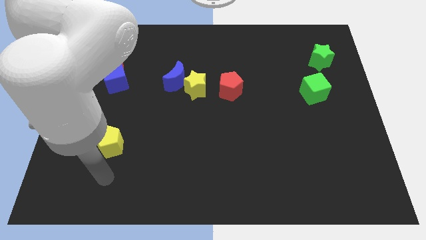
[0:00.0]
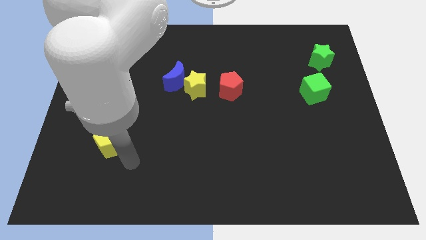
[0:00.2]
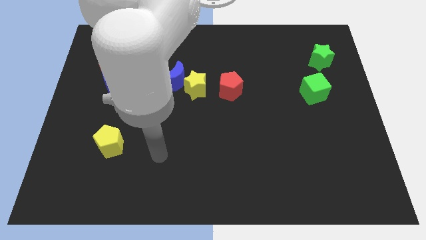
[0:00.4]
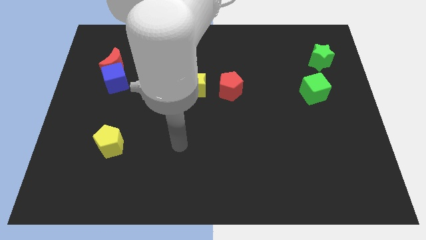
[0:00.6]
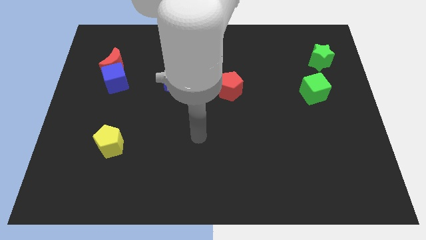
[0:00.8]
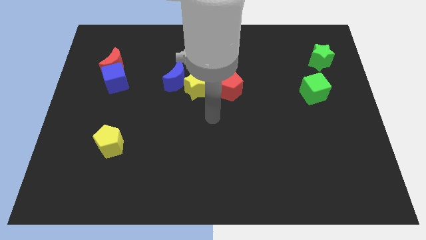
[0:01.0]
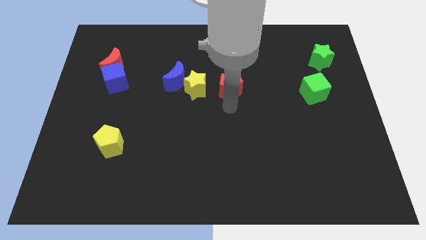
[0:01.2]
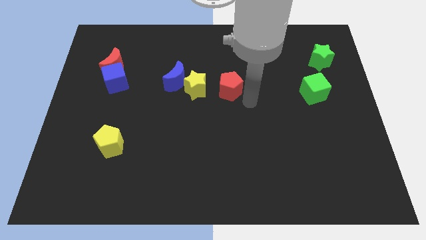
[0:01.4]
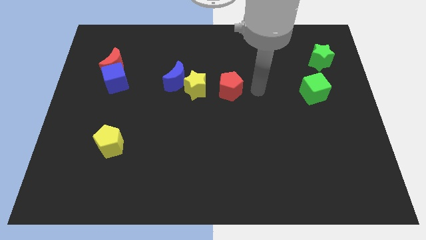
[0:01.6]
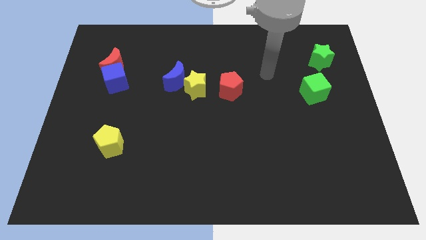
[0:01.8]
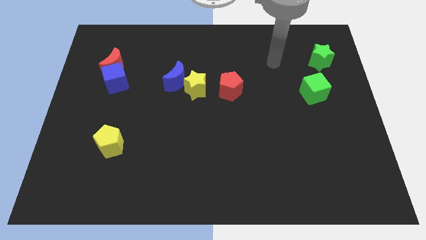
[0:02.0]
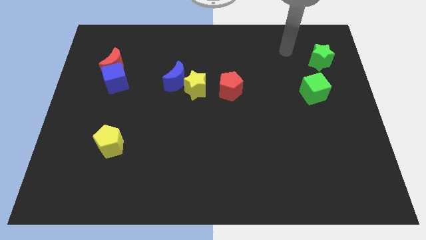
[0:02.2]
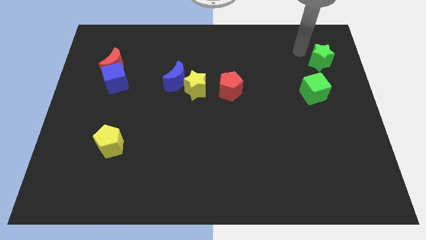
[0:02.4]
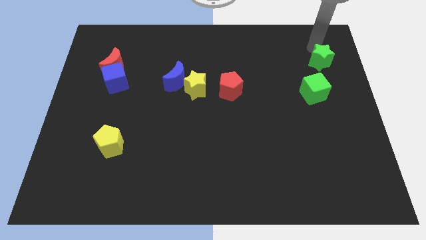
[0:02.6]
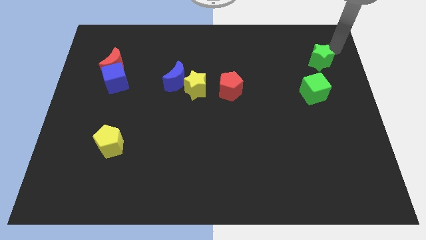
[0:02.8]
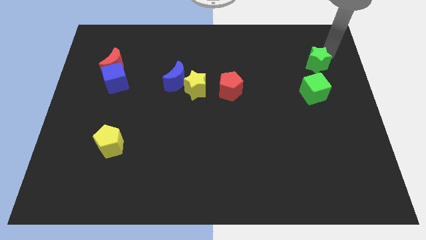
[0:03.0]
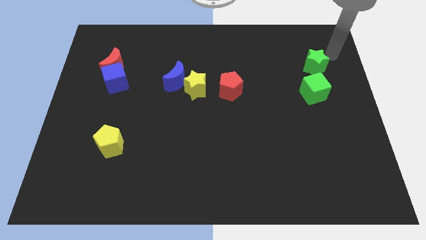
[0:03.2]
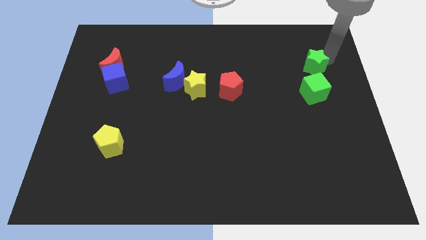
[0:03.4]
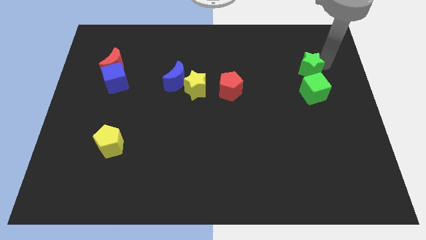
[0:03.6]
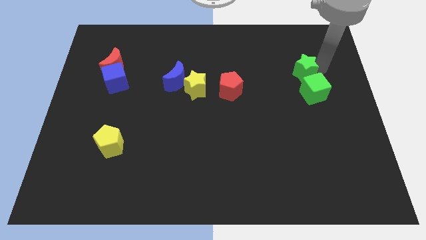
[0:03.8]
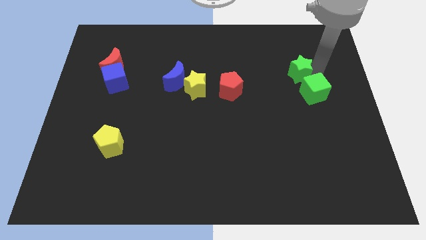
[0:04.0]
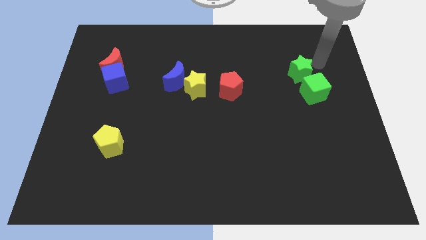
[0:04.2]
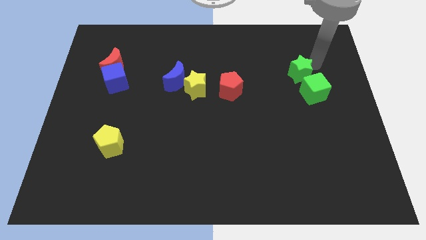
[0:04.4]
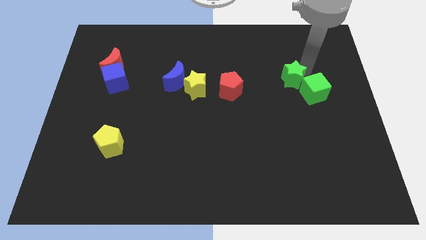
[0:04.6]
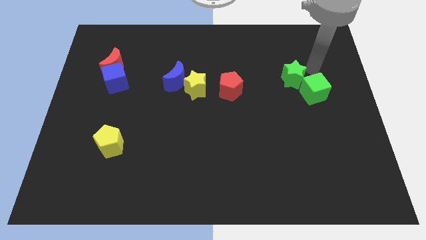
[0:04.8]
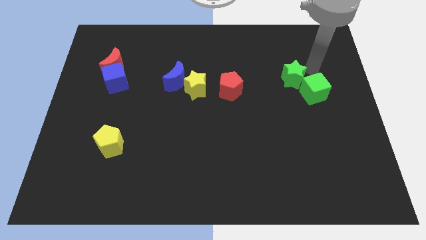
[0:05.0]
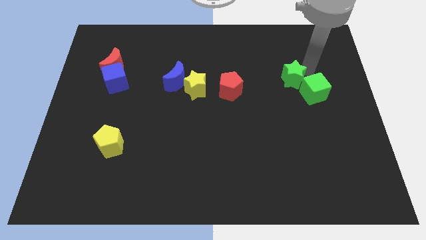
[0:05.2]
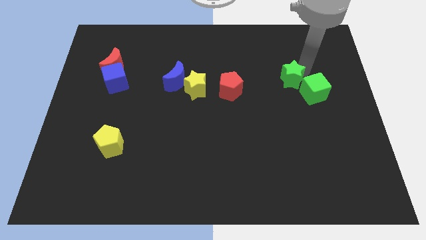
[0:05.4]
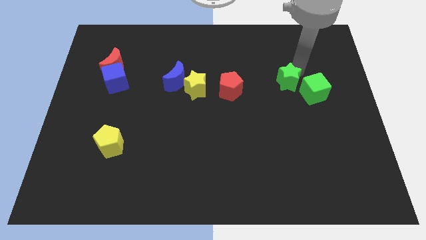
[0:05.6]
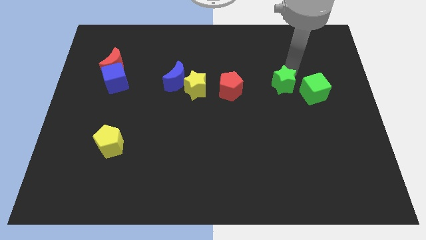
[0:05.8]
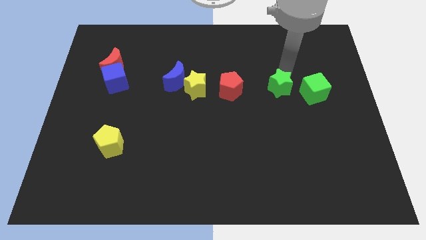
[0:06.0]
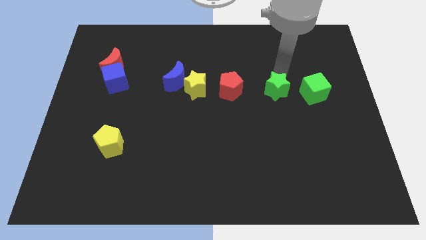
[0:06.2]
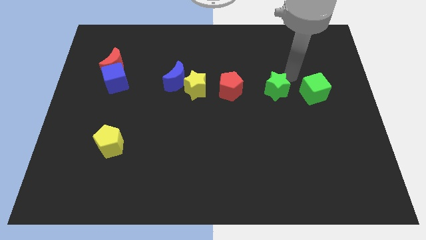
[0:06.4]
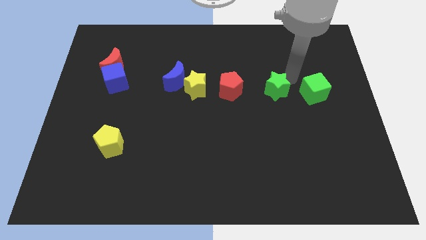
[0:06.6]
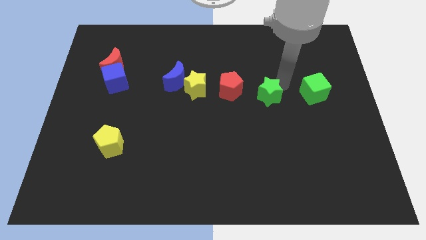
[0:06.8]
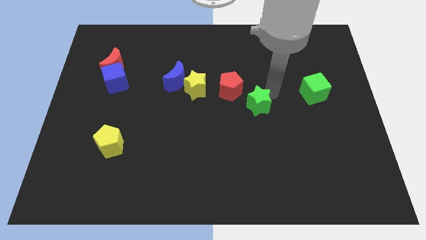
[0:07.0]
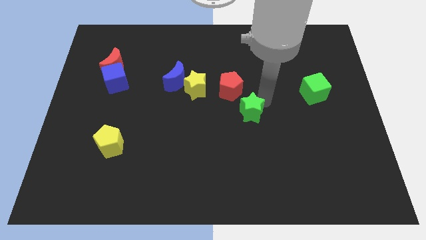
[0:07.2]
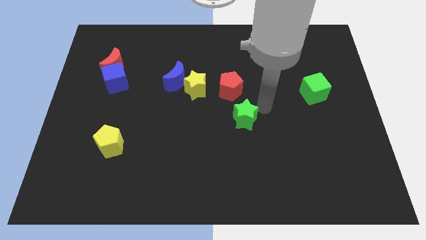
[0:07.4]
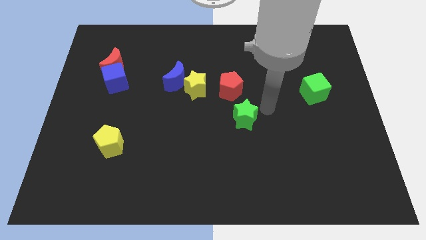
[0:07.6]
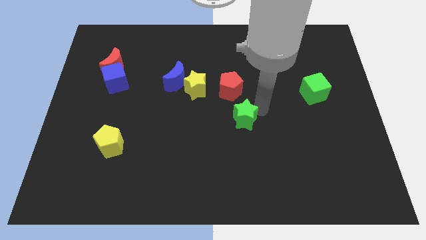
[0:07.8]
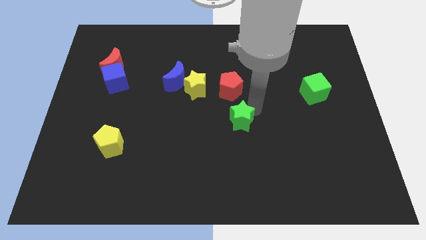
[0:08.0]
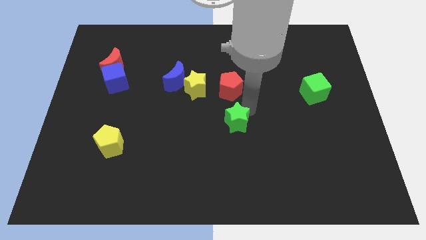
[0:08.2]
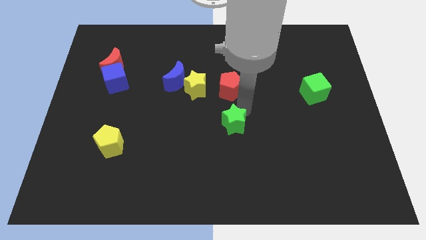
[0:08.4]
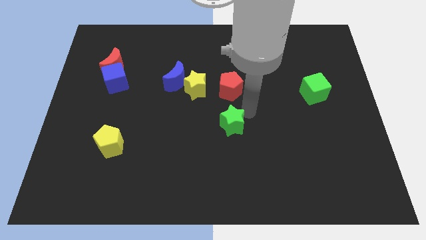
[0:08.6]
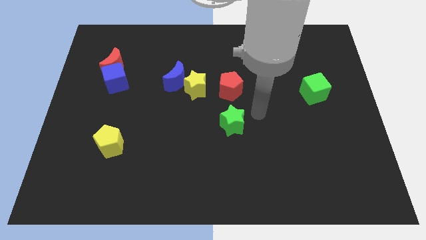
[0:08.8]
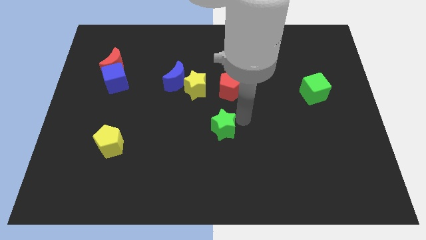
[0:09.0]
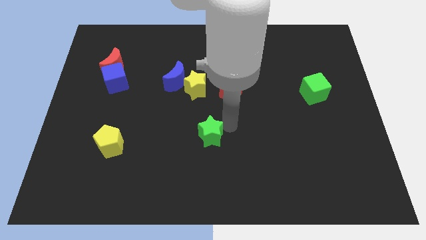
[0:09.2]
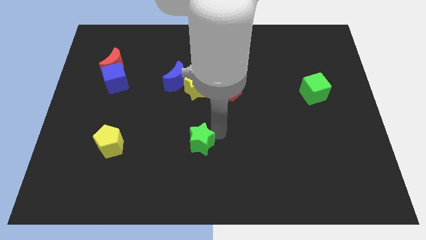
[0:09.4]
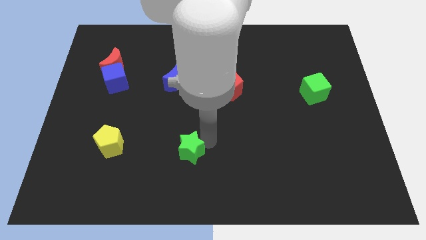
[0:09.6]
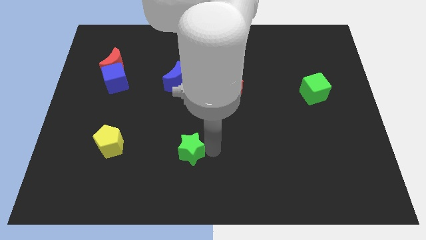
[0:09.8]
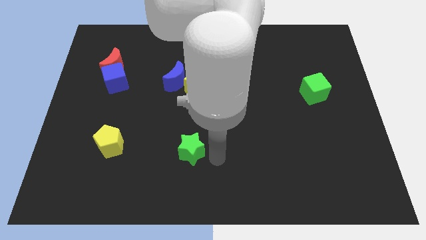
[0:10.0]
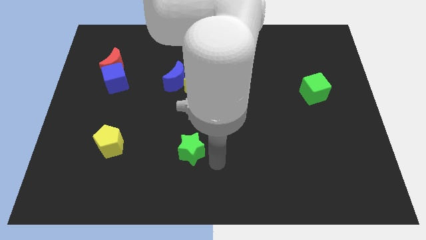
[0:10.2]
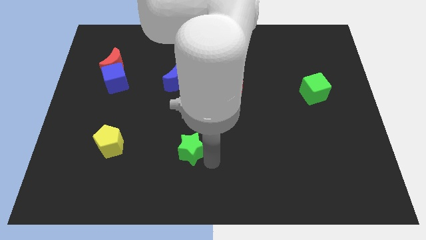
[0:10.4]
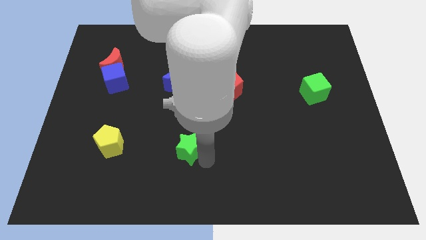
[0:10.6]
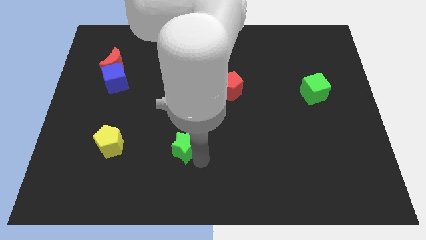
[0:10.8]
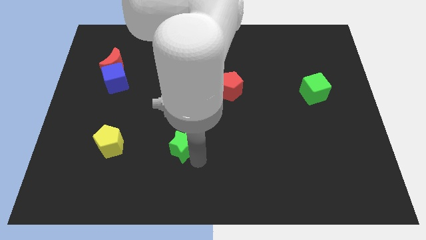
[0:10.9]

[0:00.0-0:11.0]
push the green star to the right of the yellow pentagon

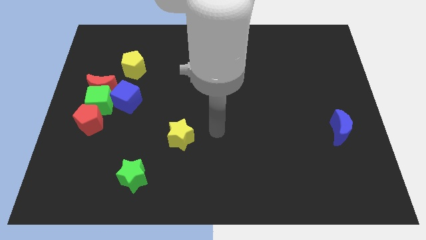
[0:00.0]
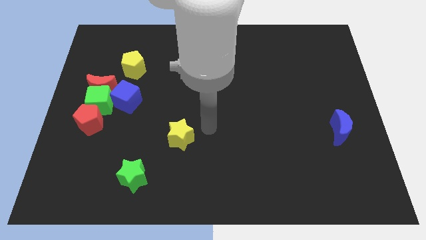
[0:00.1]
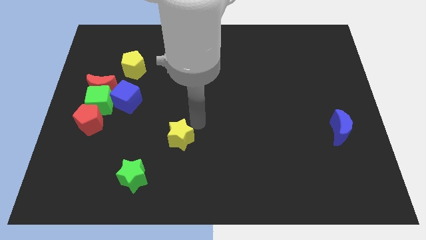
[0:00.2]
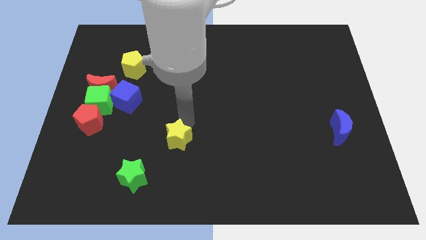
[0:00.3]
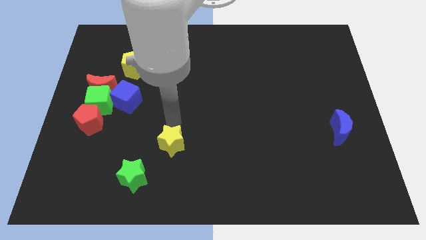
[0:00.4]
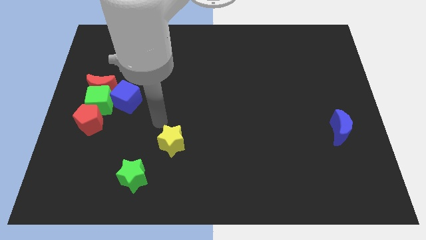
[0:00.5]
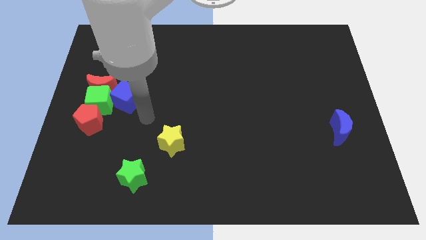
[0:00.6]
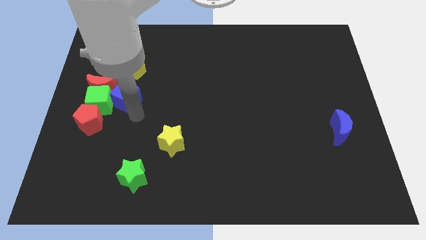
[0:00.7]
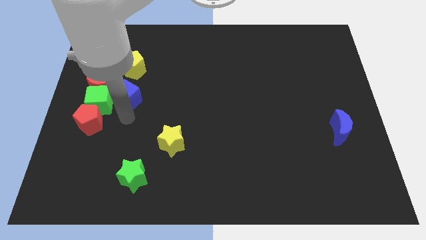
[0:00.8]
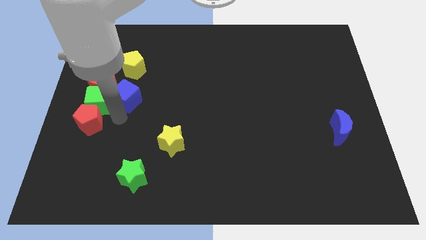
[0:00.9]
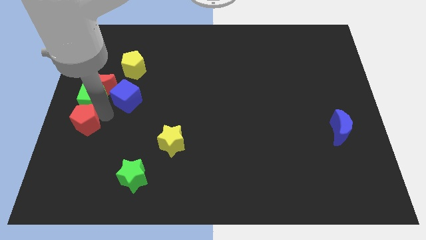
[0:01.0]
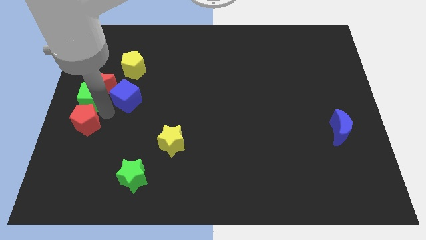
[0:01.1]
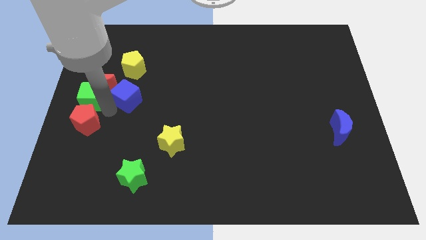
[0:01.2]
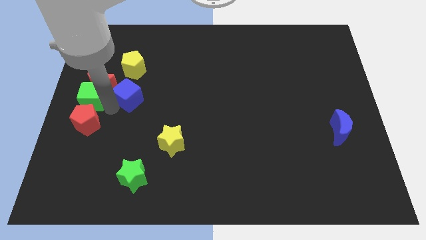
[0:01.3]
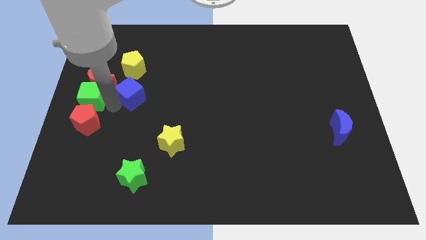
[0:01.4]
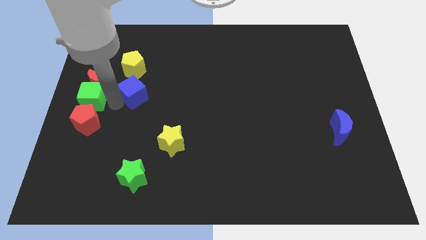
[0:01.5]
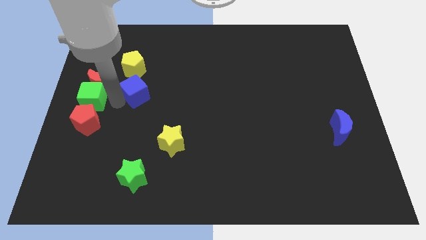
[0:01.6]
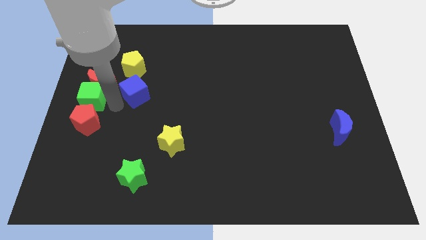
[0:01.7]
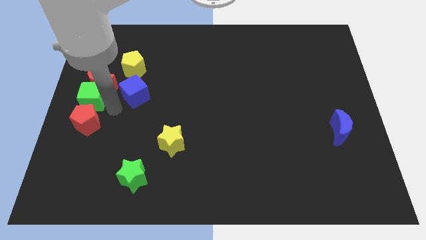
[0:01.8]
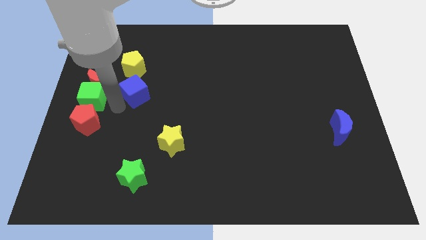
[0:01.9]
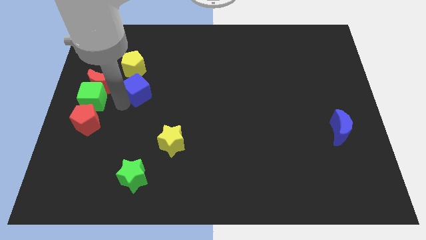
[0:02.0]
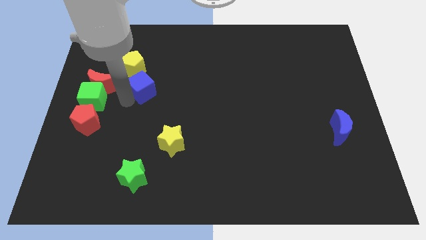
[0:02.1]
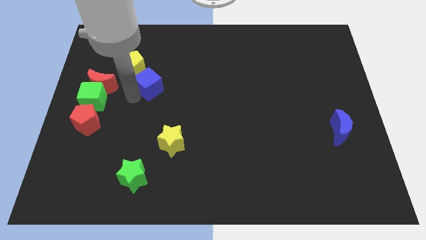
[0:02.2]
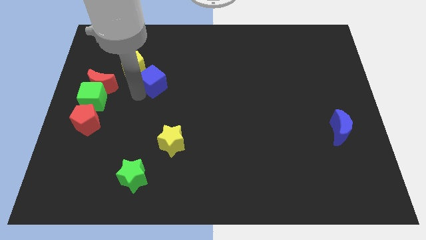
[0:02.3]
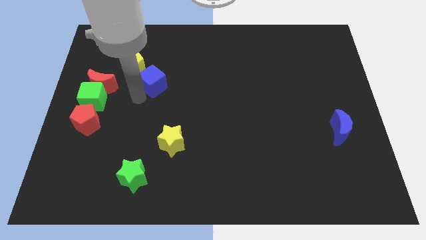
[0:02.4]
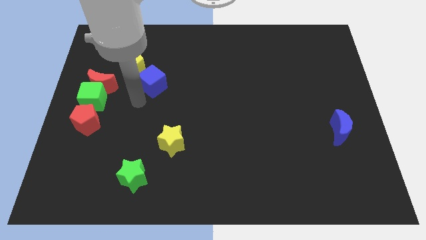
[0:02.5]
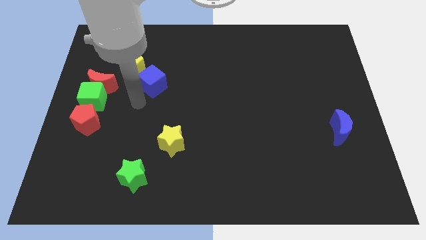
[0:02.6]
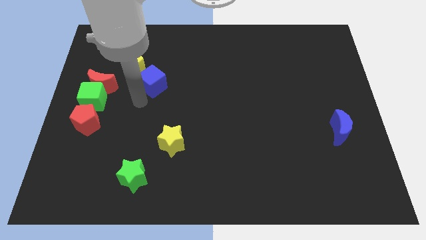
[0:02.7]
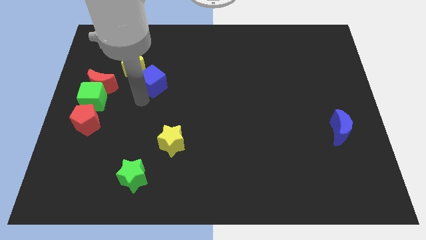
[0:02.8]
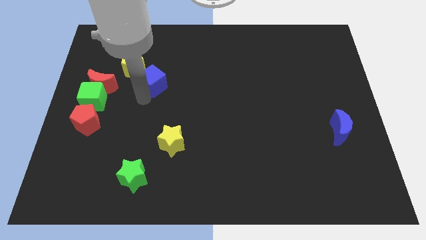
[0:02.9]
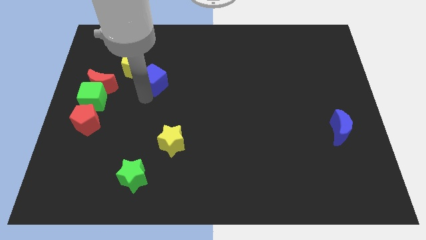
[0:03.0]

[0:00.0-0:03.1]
slide the blue cube to the right of the yellow pentagon
